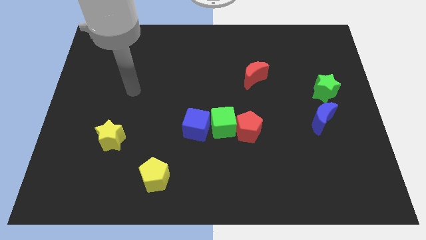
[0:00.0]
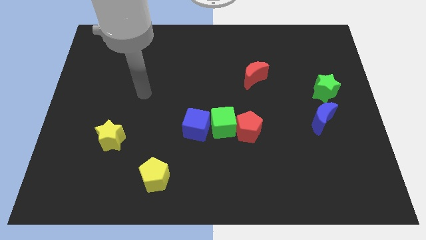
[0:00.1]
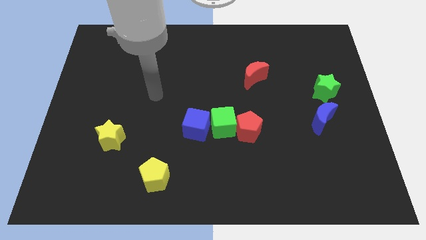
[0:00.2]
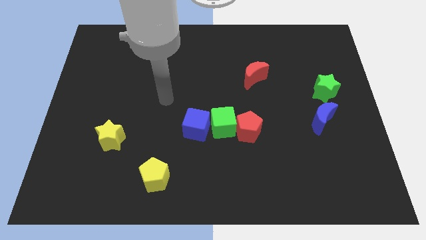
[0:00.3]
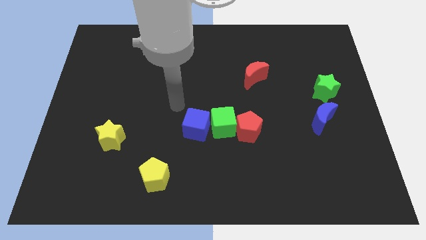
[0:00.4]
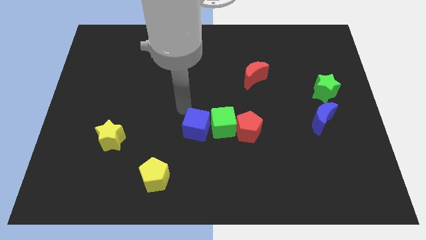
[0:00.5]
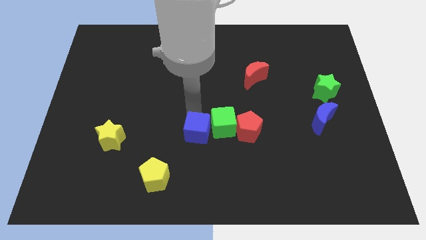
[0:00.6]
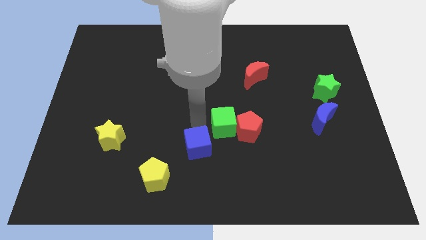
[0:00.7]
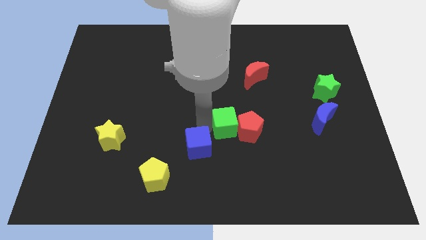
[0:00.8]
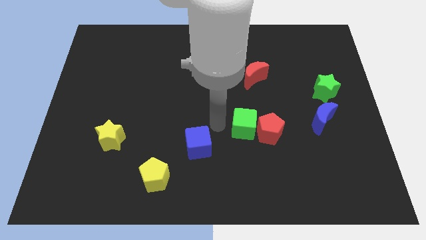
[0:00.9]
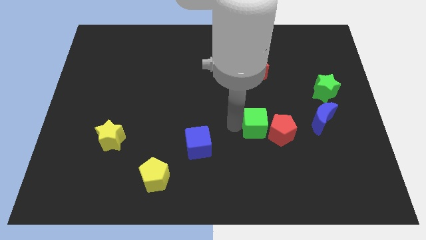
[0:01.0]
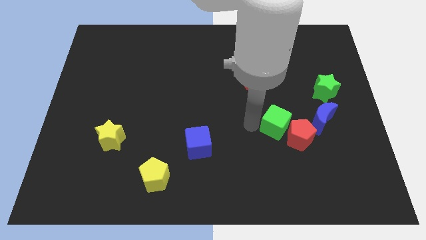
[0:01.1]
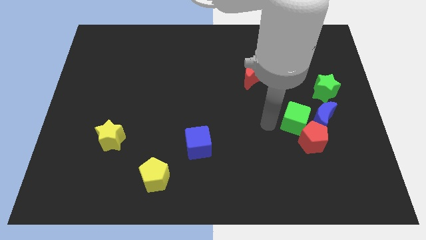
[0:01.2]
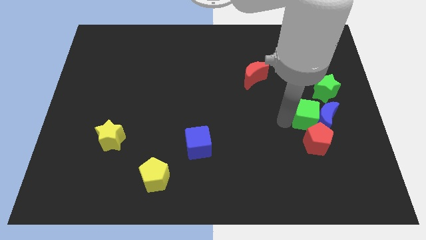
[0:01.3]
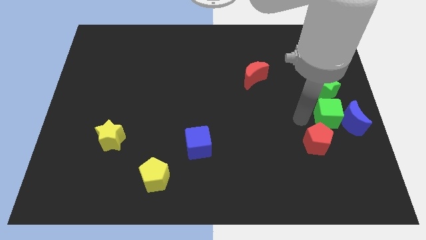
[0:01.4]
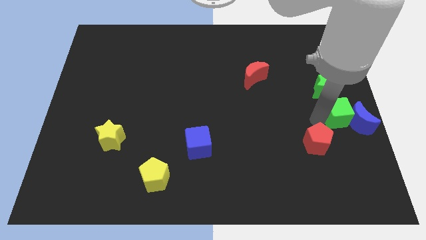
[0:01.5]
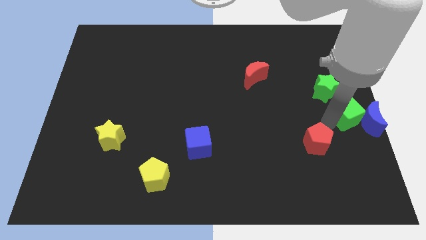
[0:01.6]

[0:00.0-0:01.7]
move the red pentagon away from the green cube

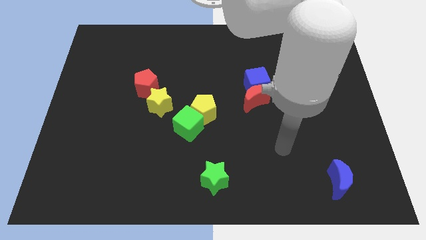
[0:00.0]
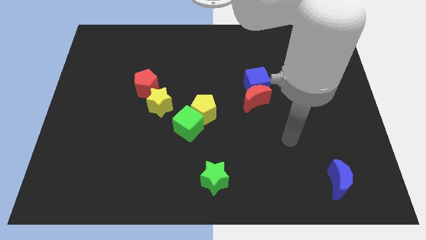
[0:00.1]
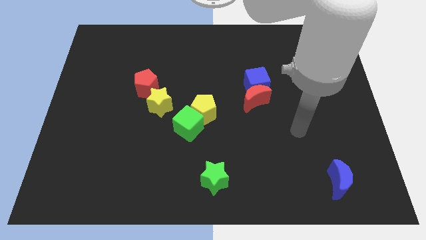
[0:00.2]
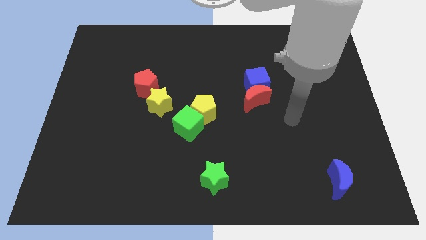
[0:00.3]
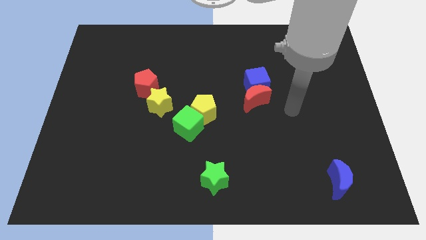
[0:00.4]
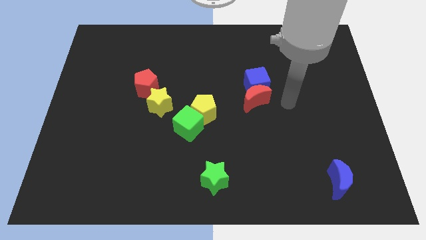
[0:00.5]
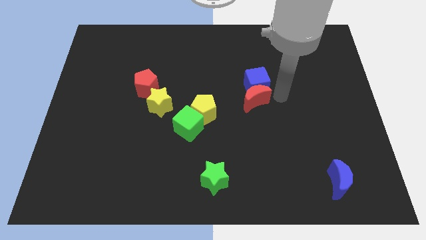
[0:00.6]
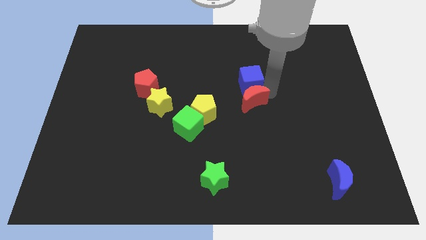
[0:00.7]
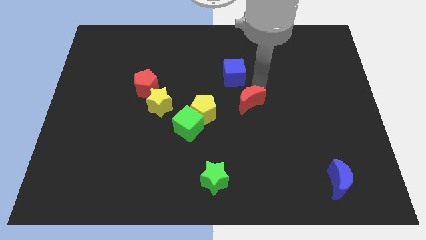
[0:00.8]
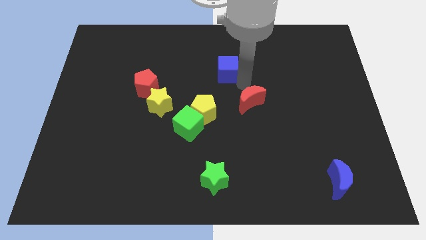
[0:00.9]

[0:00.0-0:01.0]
move the red moon away from the blue cube

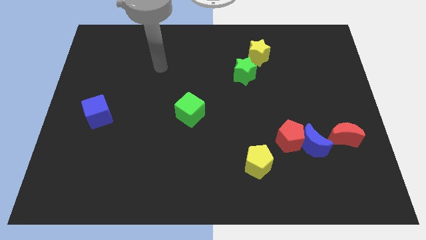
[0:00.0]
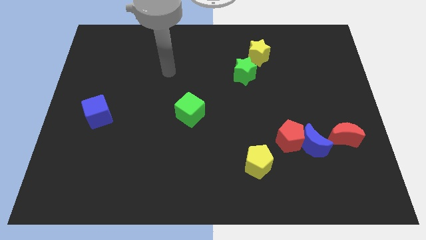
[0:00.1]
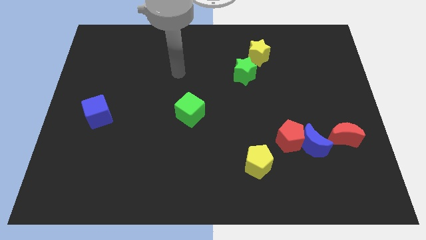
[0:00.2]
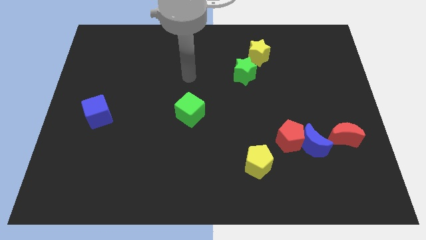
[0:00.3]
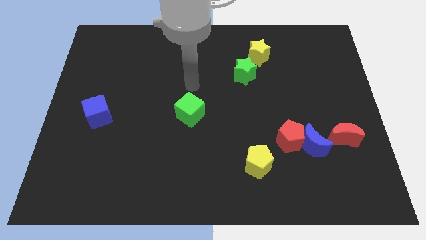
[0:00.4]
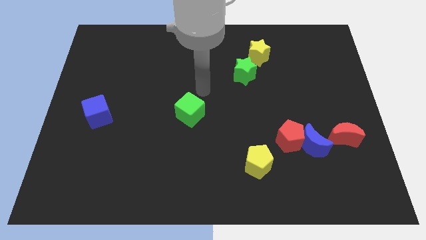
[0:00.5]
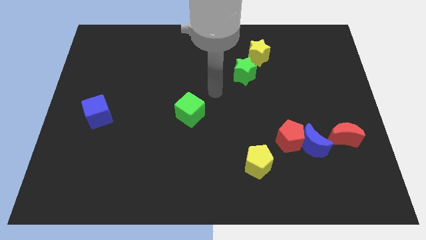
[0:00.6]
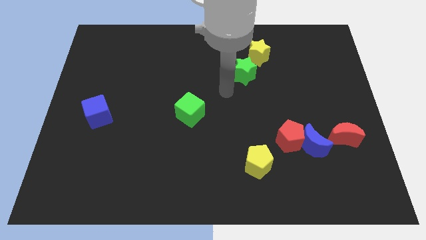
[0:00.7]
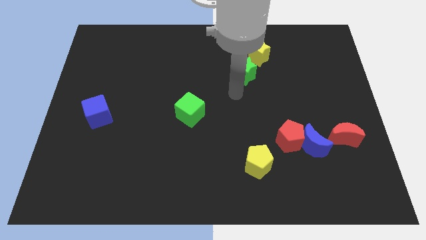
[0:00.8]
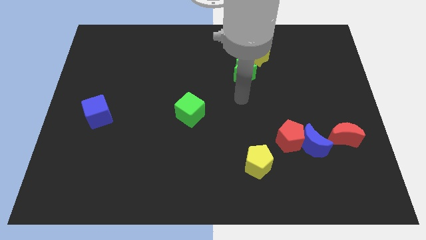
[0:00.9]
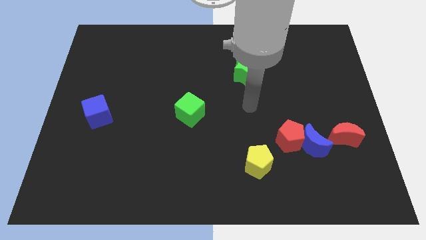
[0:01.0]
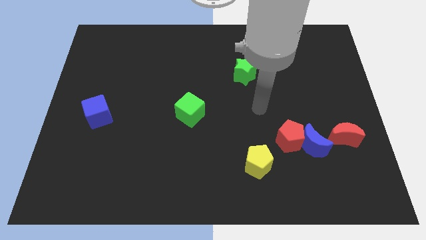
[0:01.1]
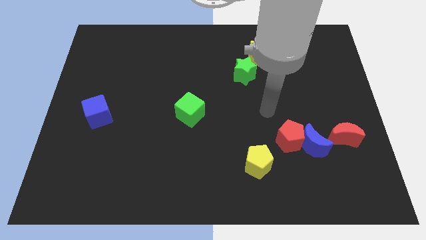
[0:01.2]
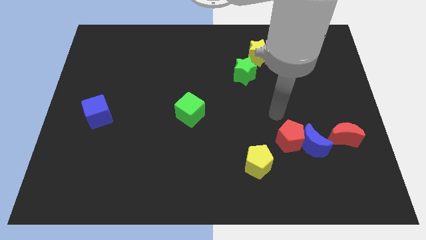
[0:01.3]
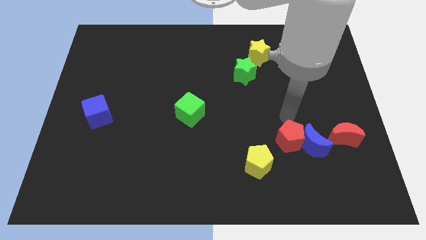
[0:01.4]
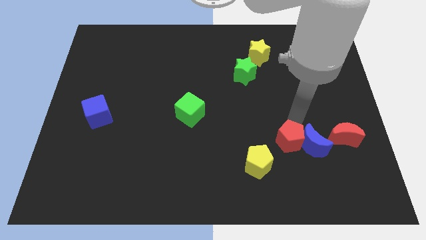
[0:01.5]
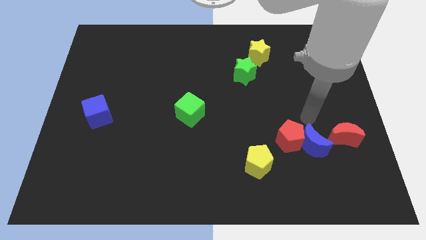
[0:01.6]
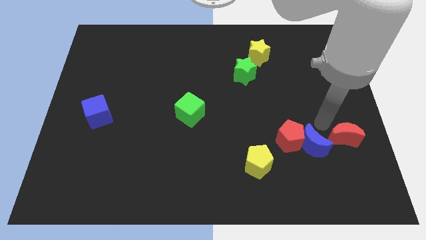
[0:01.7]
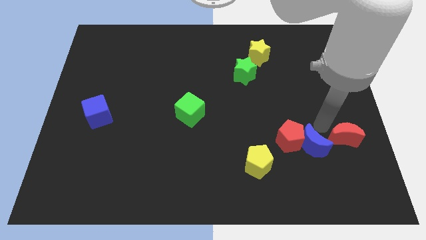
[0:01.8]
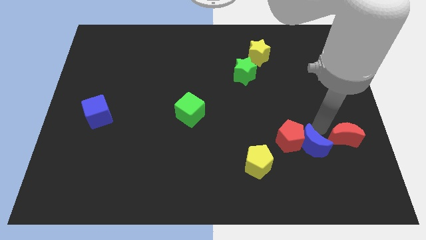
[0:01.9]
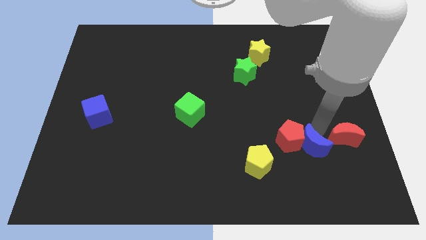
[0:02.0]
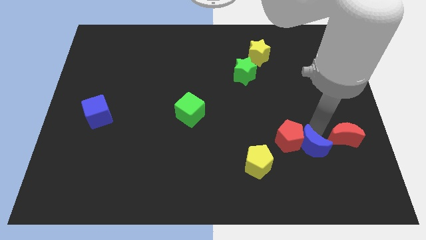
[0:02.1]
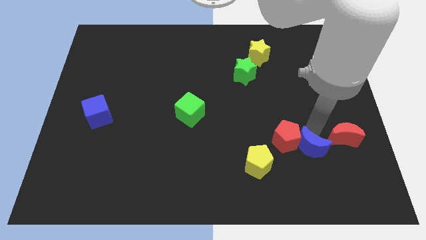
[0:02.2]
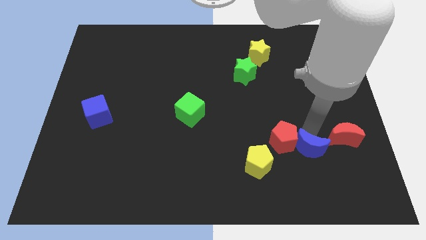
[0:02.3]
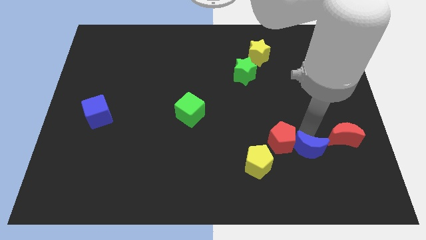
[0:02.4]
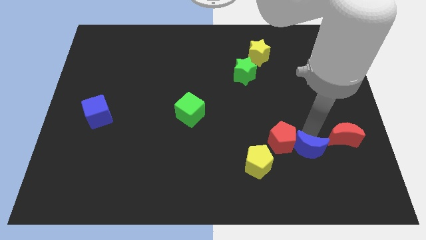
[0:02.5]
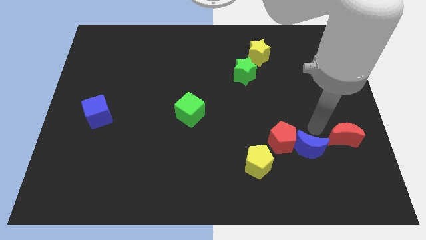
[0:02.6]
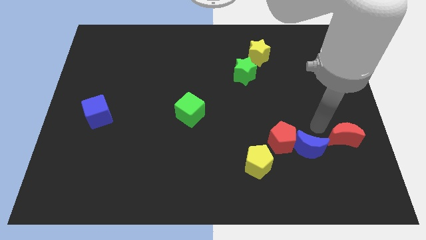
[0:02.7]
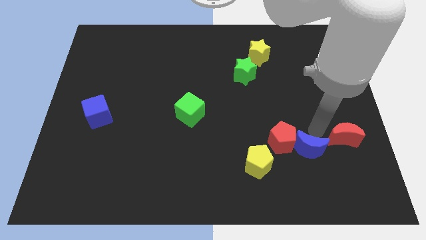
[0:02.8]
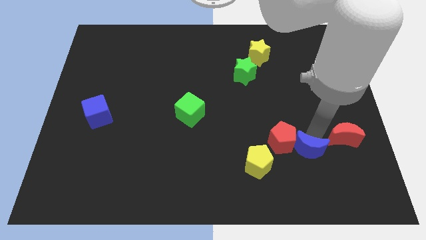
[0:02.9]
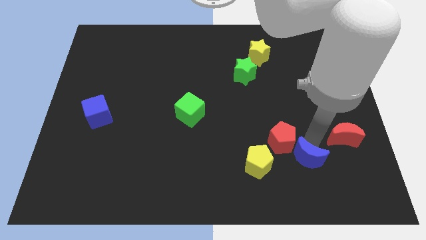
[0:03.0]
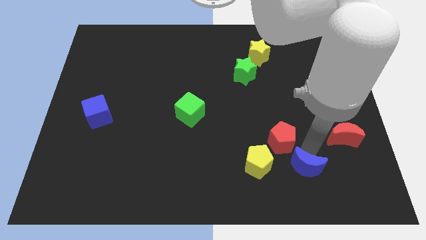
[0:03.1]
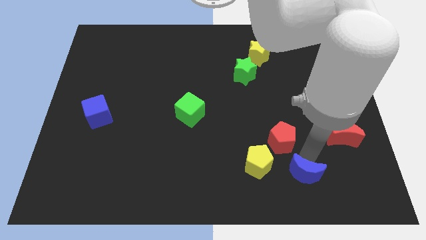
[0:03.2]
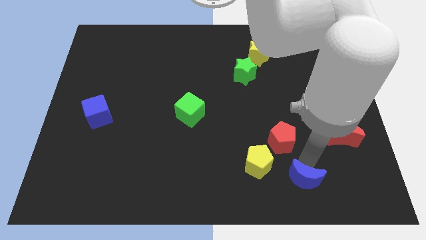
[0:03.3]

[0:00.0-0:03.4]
pull the blue moon apart from the red pentagon and red moon

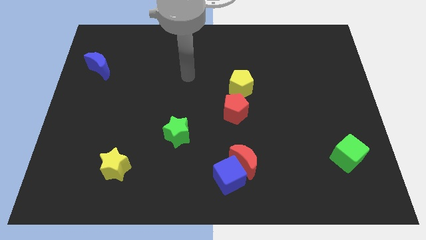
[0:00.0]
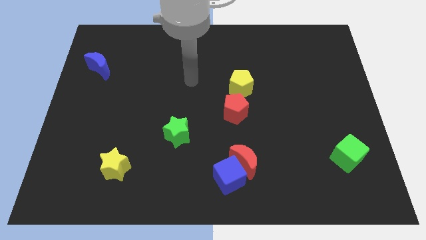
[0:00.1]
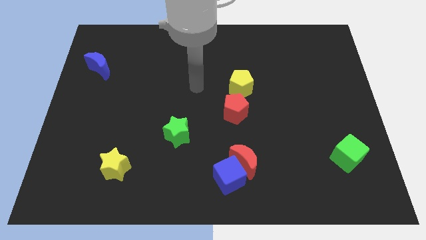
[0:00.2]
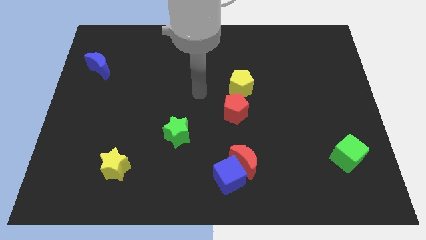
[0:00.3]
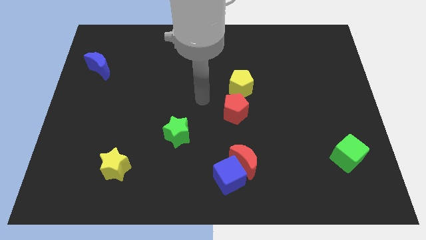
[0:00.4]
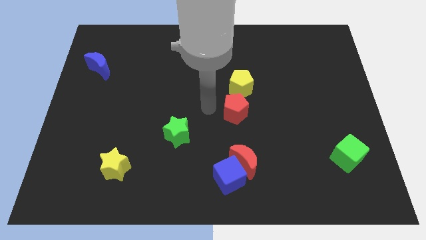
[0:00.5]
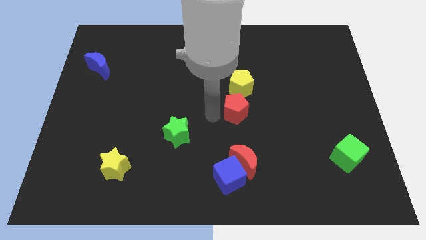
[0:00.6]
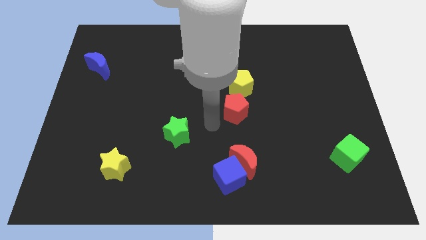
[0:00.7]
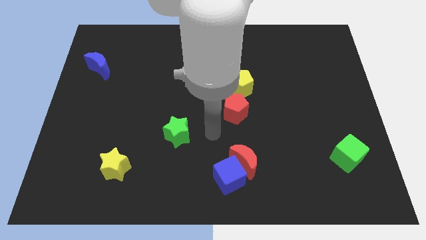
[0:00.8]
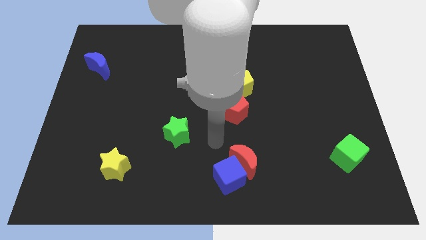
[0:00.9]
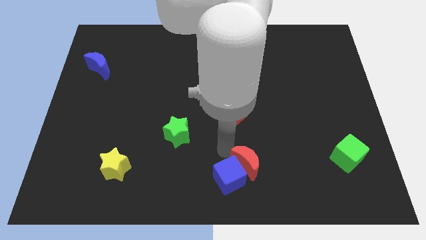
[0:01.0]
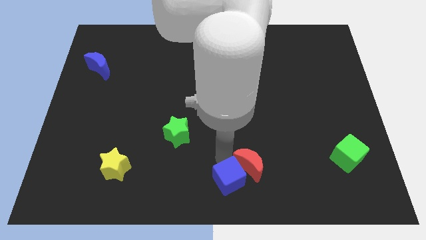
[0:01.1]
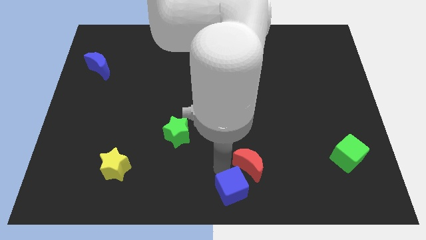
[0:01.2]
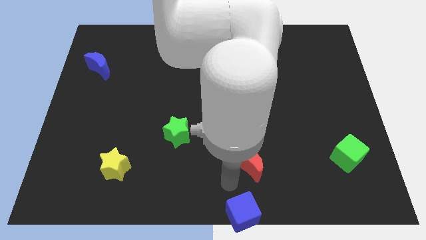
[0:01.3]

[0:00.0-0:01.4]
pull the red moon apart from the blue cube

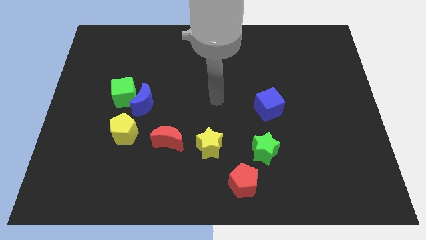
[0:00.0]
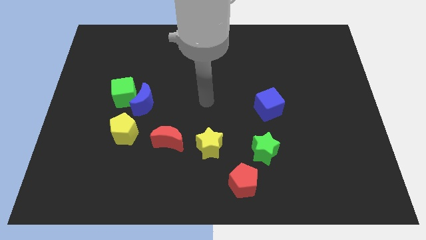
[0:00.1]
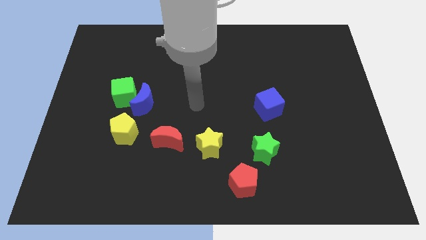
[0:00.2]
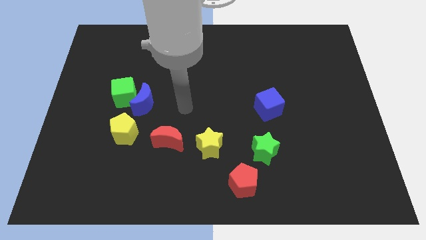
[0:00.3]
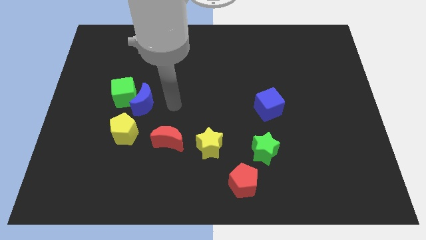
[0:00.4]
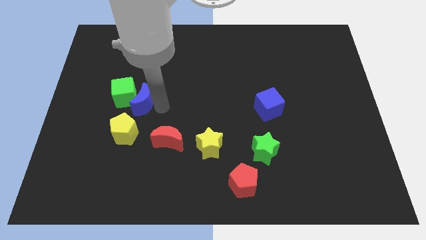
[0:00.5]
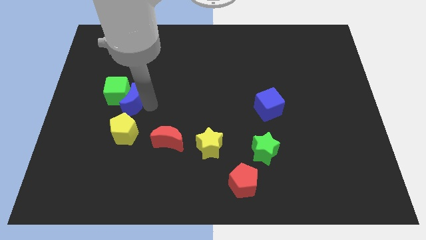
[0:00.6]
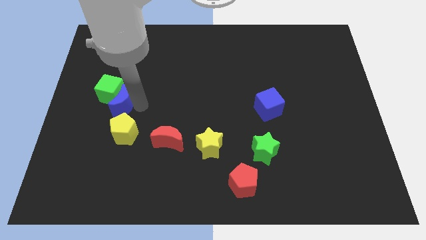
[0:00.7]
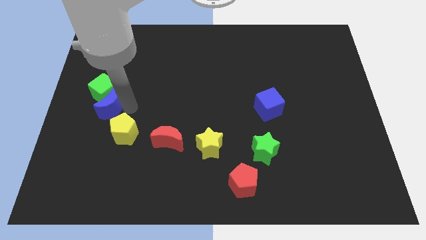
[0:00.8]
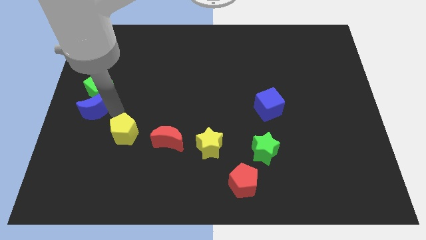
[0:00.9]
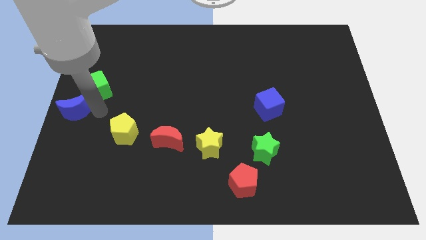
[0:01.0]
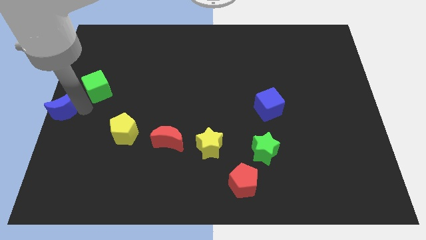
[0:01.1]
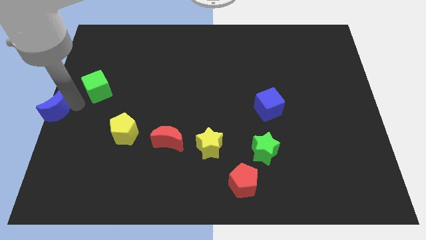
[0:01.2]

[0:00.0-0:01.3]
pull the green cube apart from the blue moon

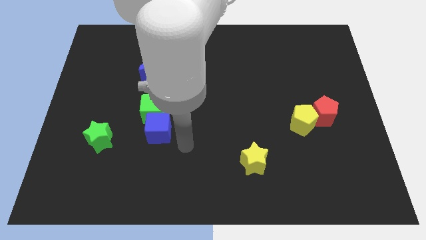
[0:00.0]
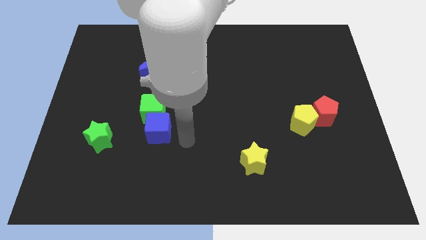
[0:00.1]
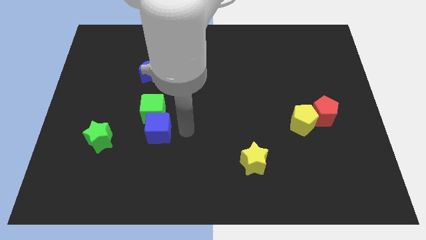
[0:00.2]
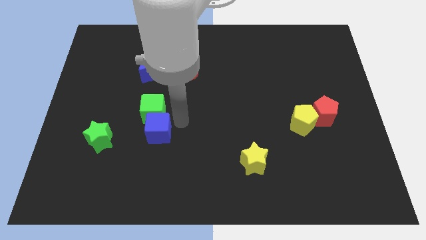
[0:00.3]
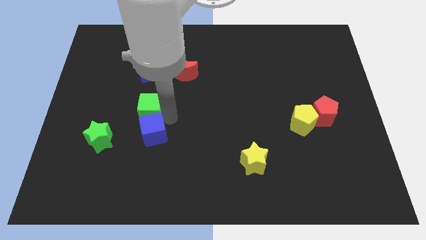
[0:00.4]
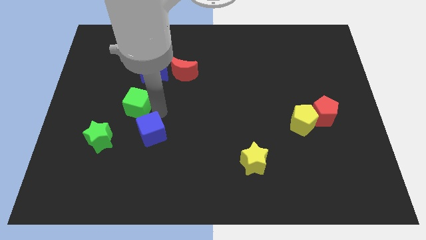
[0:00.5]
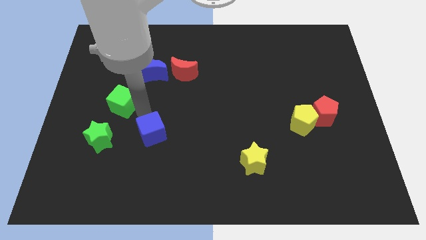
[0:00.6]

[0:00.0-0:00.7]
separate the blue cube from the green cube
